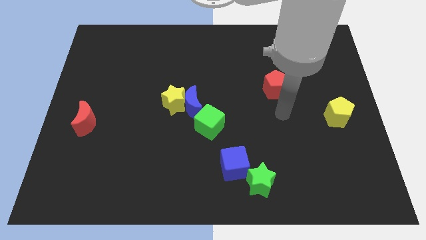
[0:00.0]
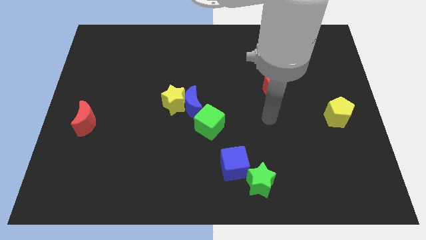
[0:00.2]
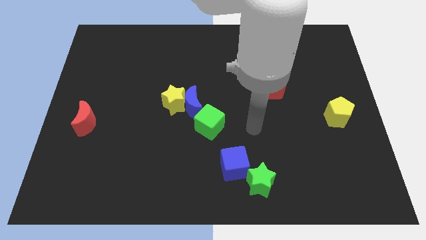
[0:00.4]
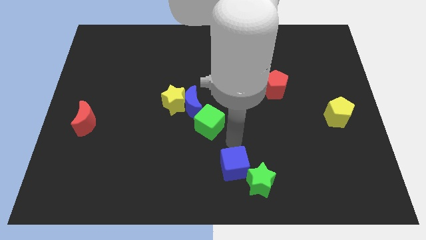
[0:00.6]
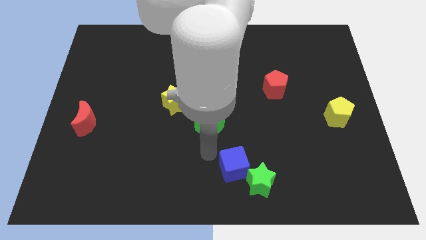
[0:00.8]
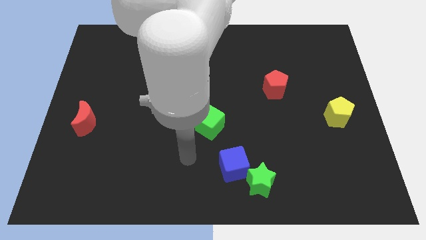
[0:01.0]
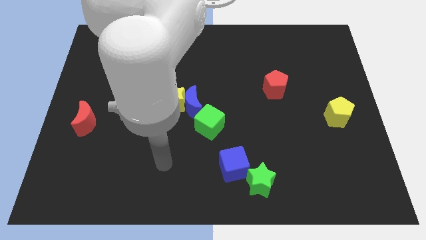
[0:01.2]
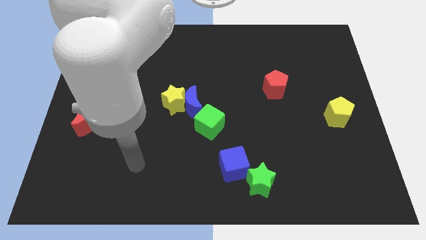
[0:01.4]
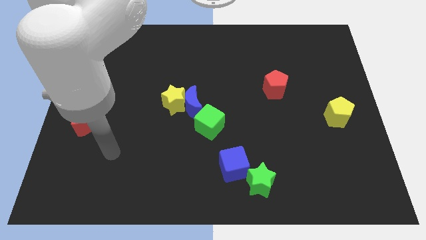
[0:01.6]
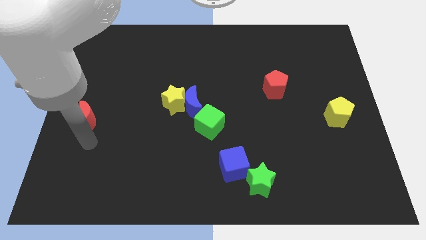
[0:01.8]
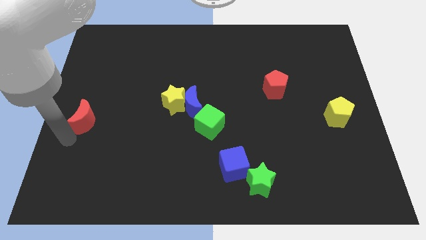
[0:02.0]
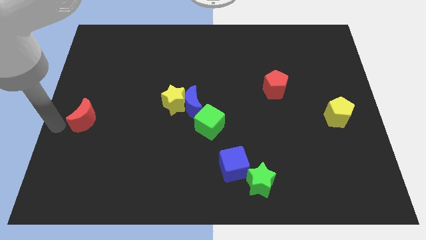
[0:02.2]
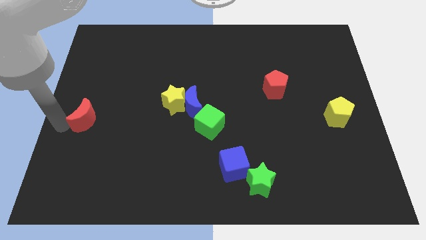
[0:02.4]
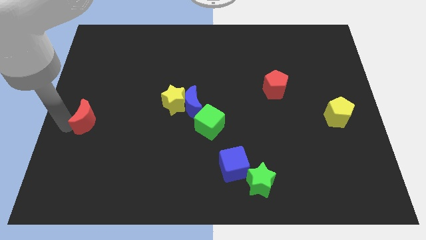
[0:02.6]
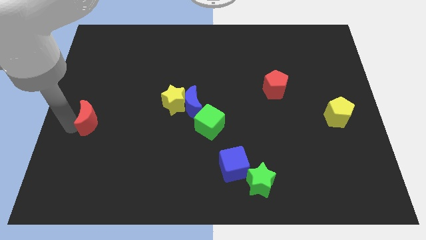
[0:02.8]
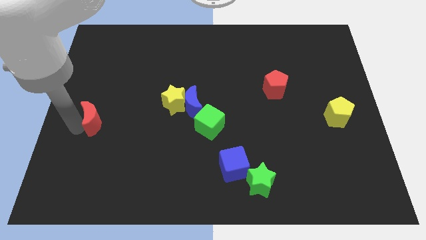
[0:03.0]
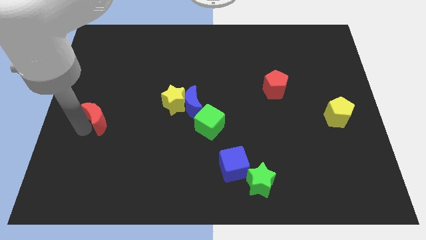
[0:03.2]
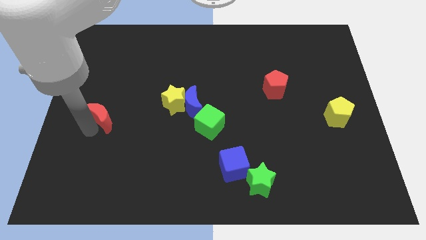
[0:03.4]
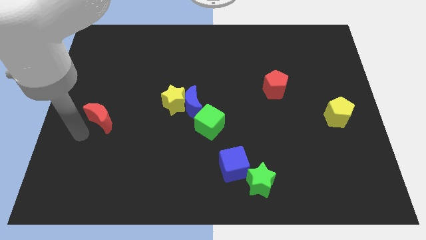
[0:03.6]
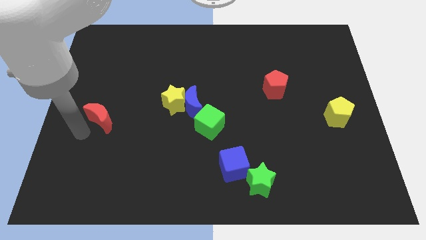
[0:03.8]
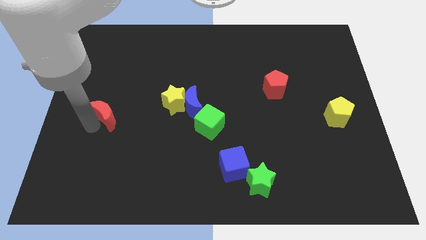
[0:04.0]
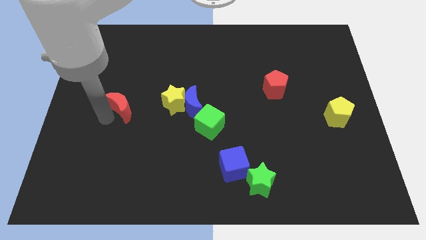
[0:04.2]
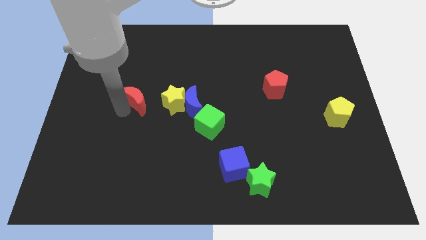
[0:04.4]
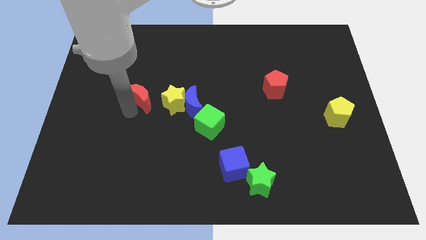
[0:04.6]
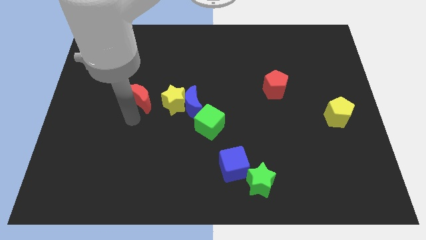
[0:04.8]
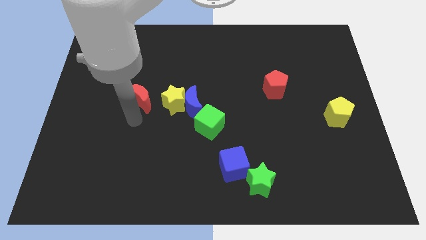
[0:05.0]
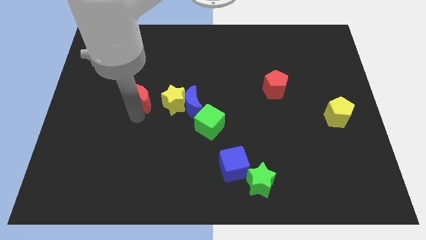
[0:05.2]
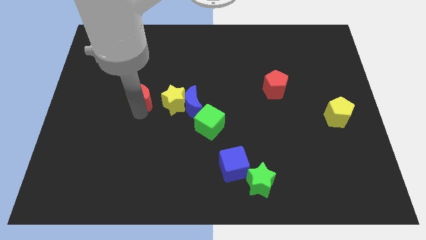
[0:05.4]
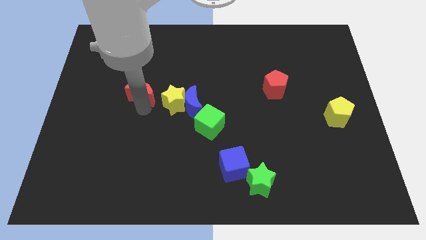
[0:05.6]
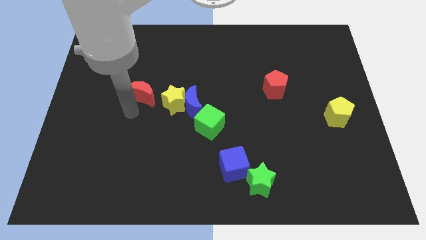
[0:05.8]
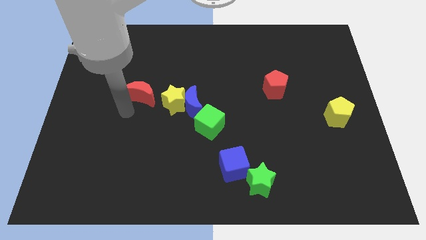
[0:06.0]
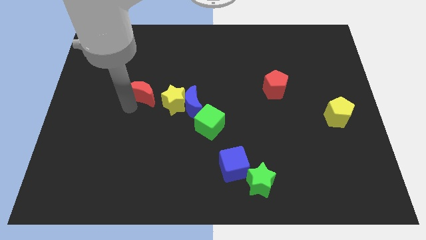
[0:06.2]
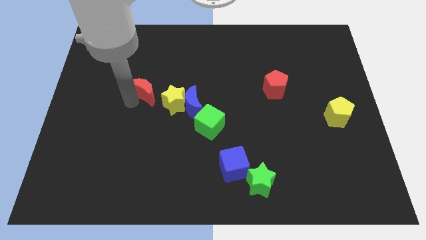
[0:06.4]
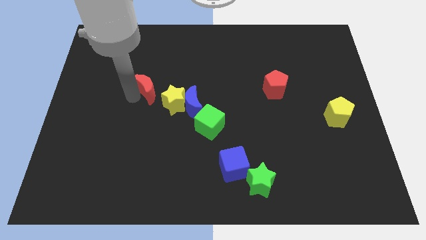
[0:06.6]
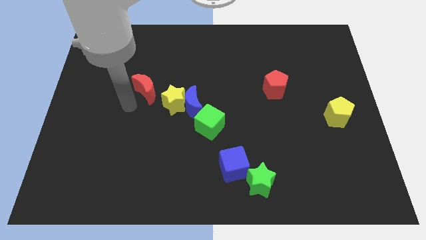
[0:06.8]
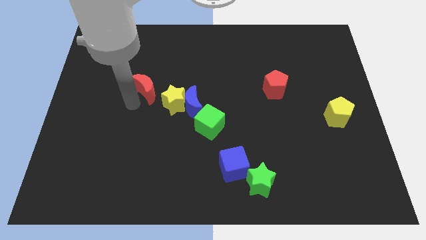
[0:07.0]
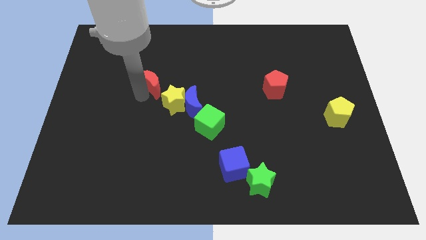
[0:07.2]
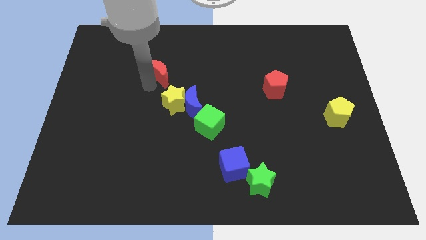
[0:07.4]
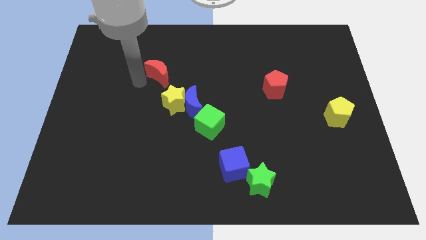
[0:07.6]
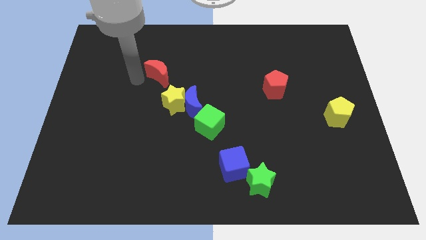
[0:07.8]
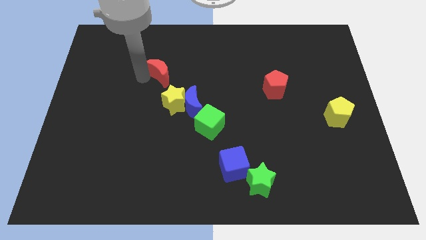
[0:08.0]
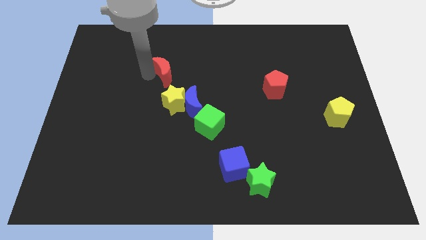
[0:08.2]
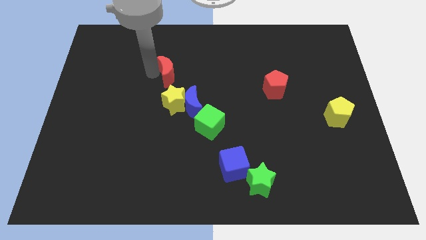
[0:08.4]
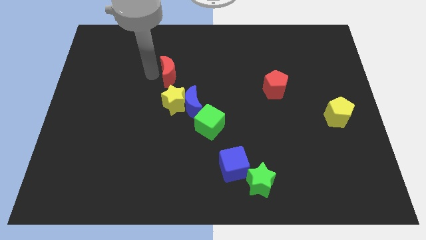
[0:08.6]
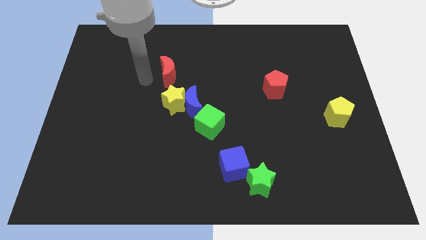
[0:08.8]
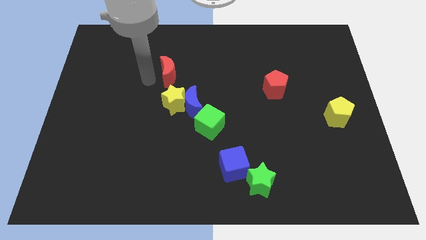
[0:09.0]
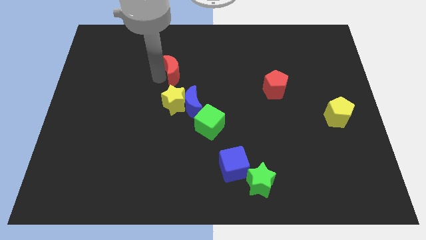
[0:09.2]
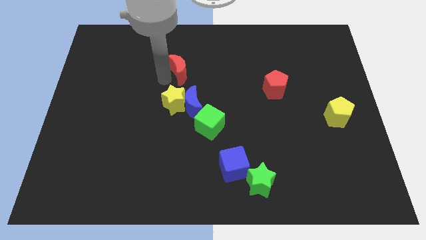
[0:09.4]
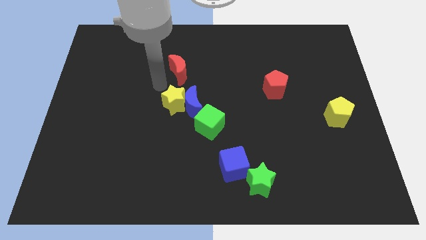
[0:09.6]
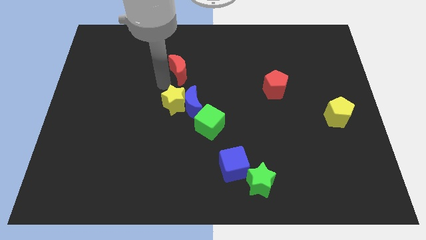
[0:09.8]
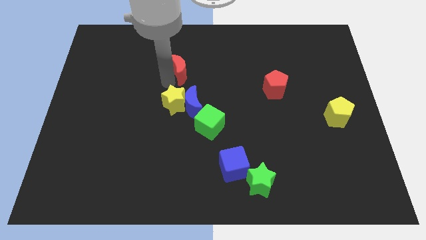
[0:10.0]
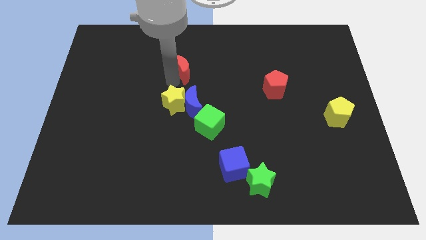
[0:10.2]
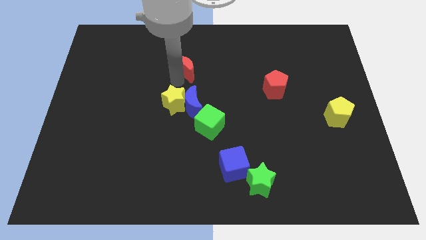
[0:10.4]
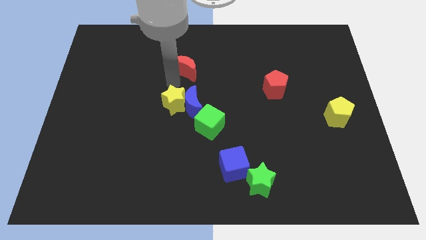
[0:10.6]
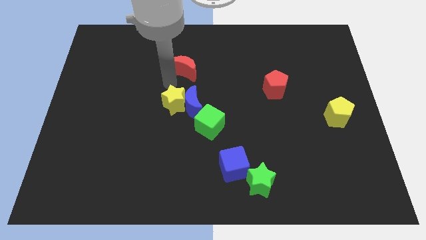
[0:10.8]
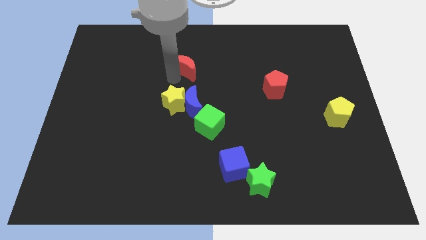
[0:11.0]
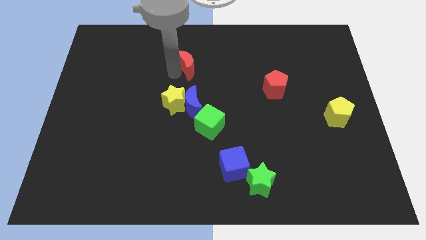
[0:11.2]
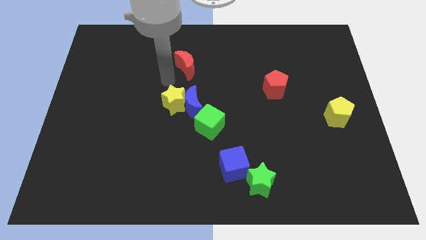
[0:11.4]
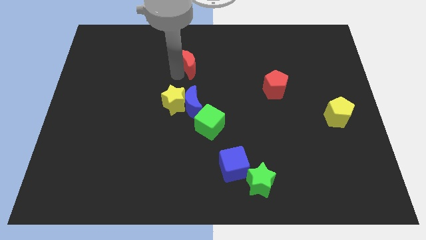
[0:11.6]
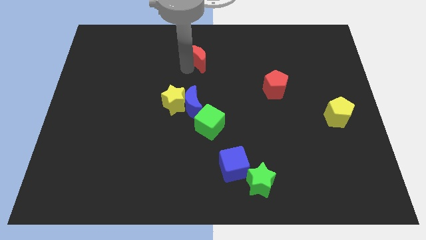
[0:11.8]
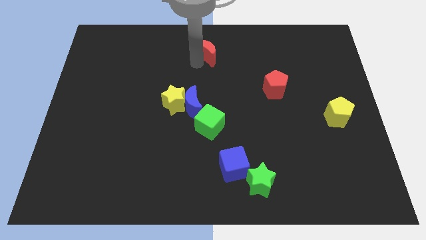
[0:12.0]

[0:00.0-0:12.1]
slide the red moon to the towards your base

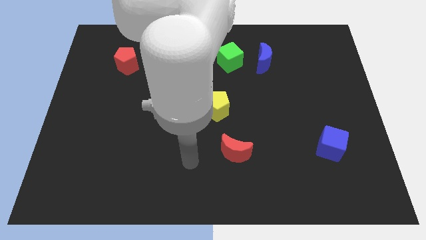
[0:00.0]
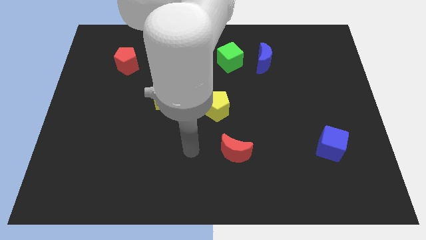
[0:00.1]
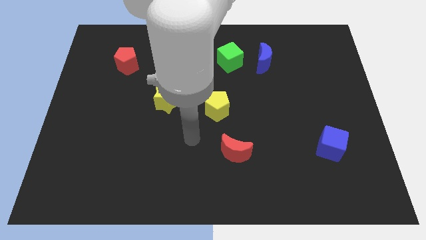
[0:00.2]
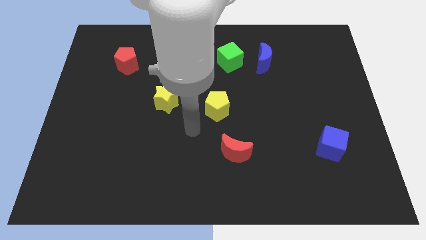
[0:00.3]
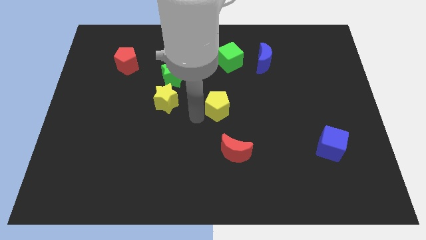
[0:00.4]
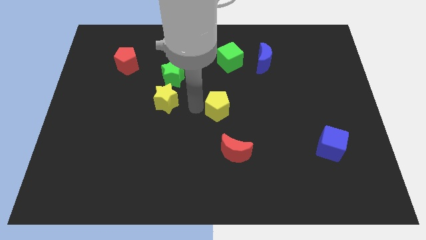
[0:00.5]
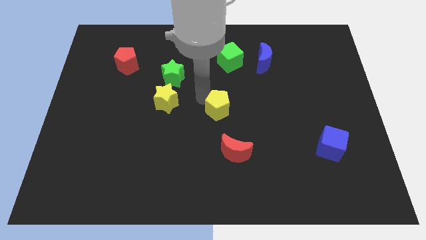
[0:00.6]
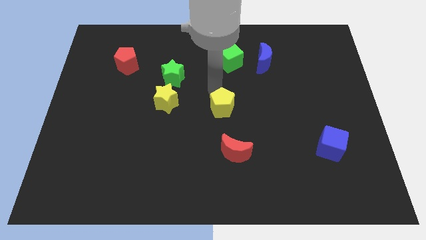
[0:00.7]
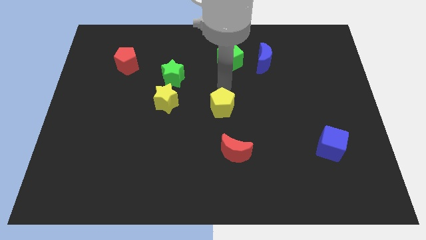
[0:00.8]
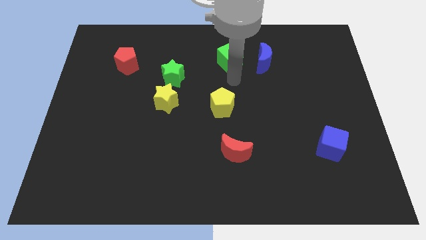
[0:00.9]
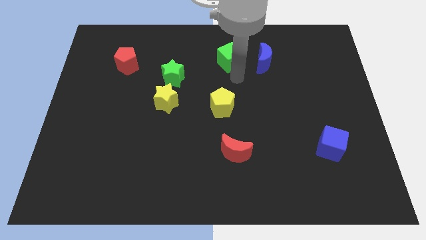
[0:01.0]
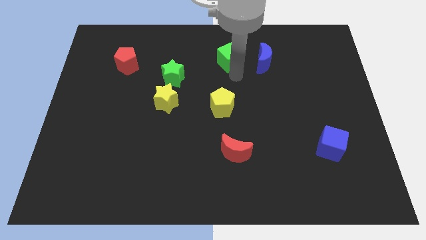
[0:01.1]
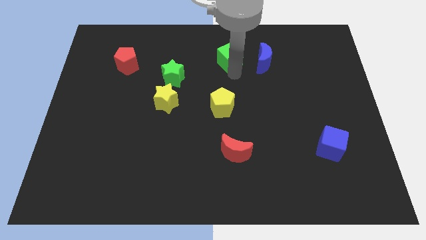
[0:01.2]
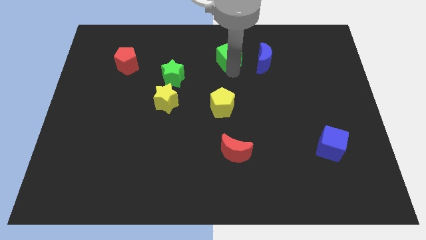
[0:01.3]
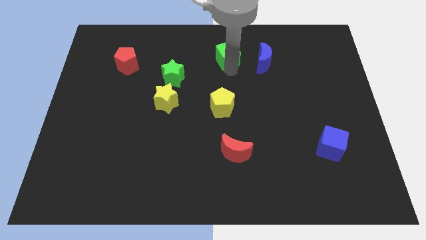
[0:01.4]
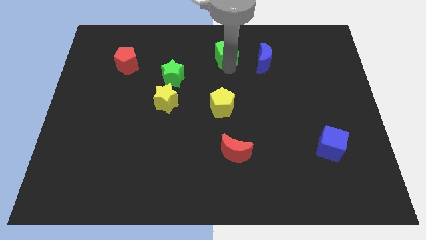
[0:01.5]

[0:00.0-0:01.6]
slide the green cube to the top side
